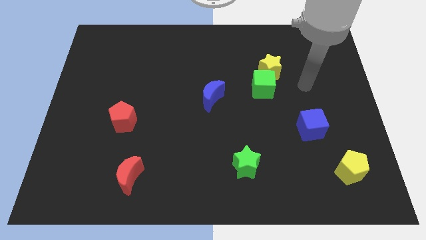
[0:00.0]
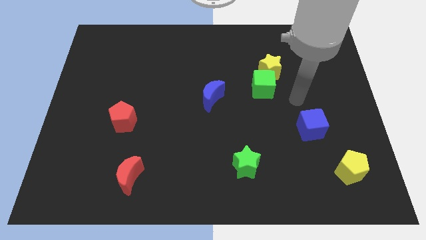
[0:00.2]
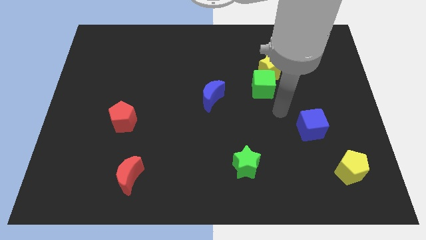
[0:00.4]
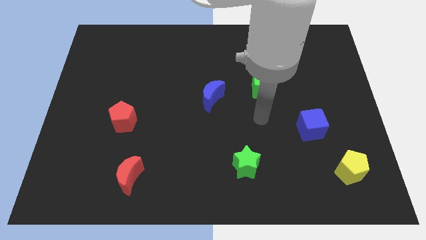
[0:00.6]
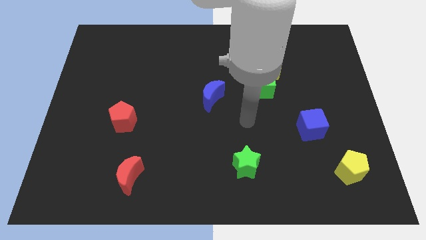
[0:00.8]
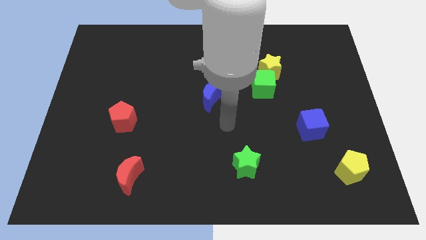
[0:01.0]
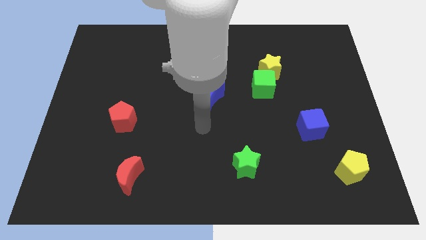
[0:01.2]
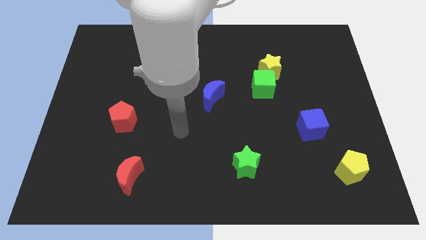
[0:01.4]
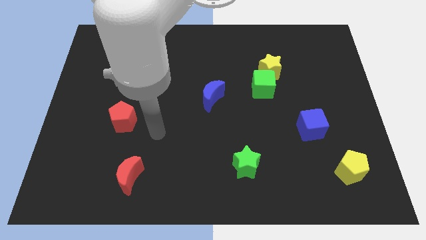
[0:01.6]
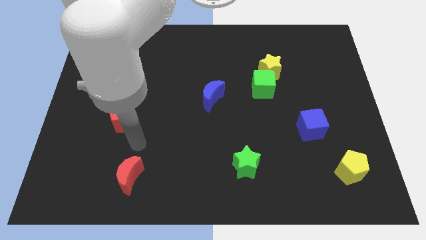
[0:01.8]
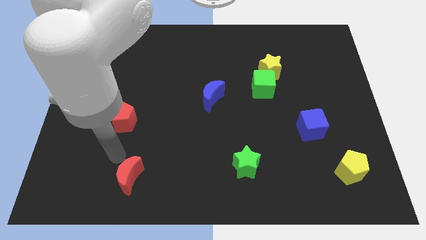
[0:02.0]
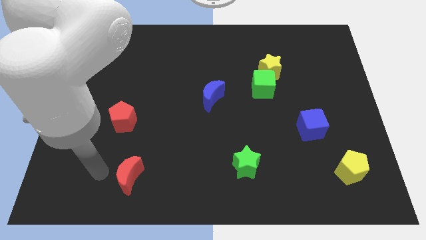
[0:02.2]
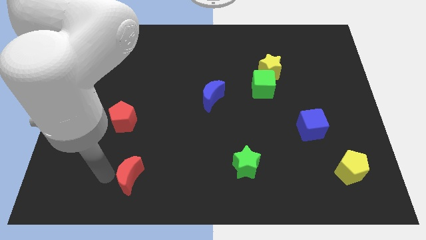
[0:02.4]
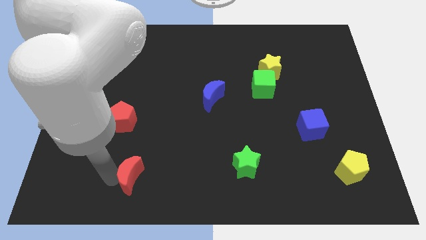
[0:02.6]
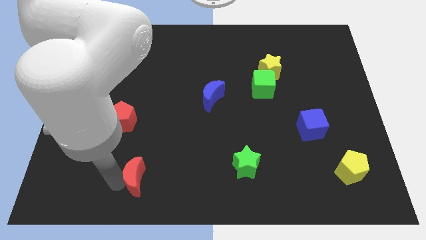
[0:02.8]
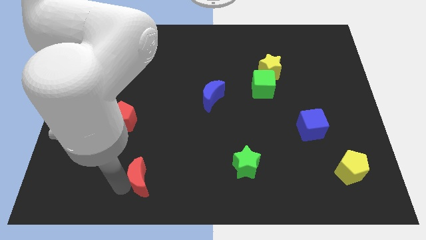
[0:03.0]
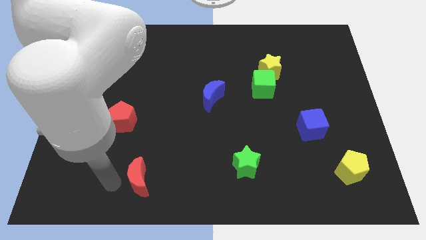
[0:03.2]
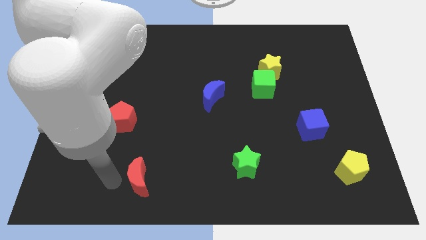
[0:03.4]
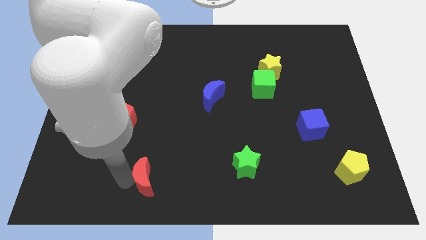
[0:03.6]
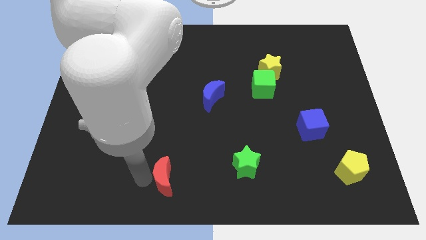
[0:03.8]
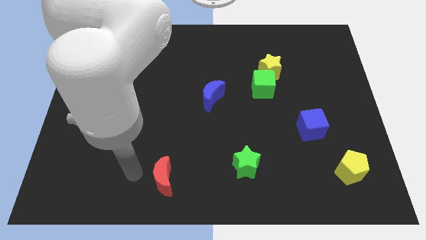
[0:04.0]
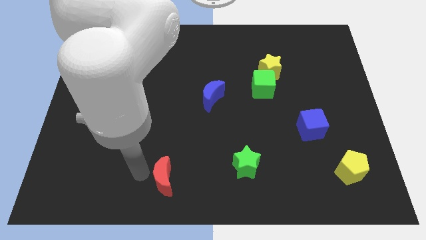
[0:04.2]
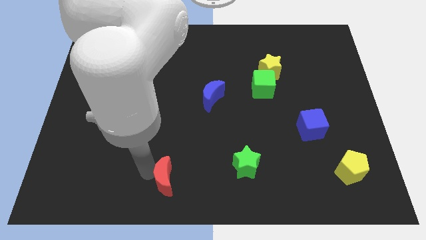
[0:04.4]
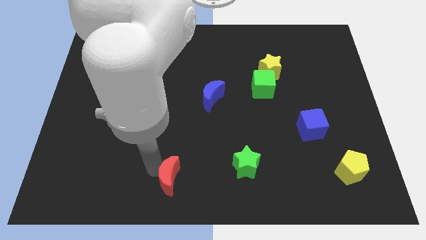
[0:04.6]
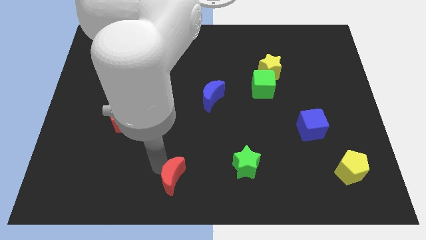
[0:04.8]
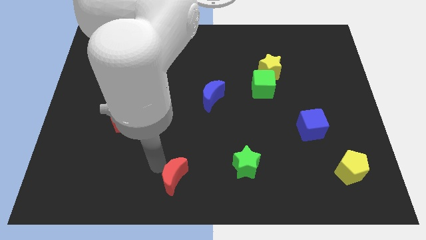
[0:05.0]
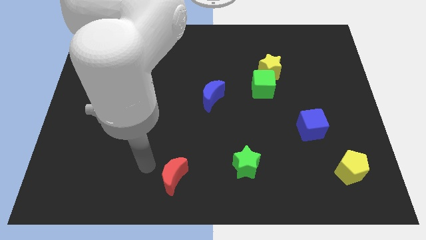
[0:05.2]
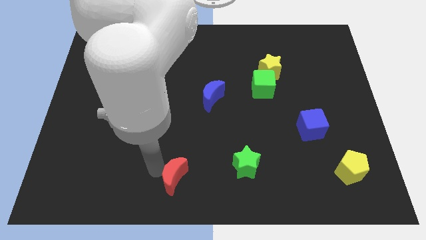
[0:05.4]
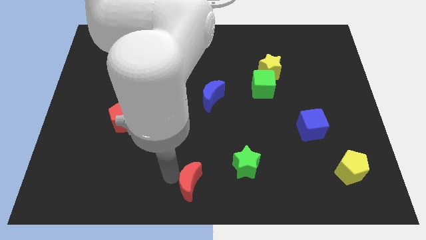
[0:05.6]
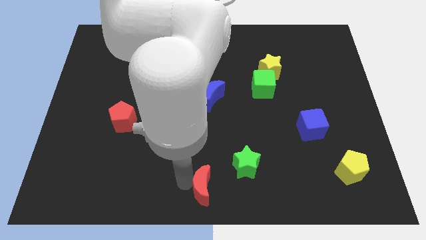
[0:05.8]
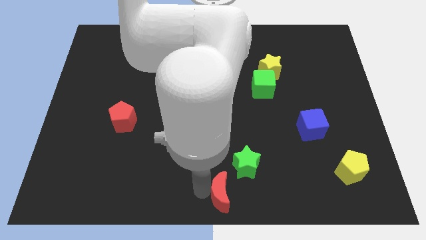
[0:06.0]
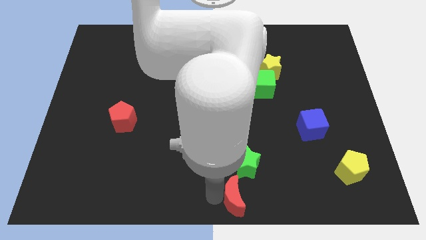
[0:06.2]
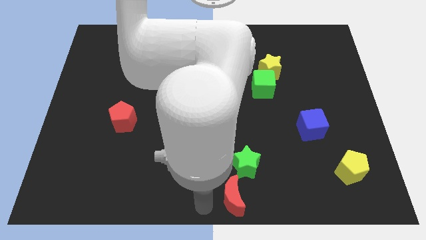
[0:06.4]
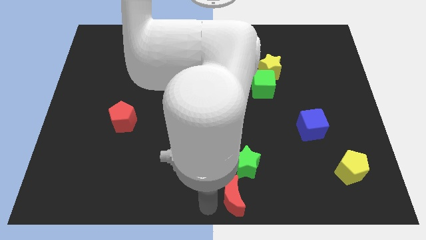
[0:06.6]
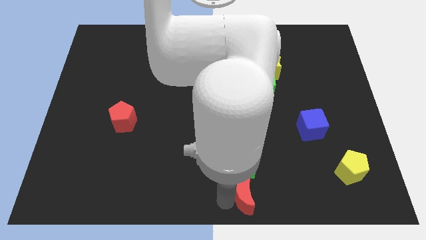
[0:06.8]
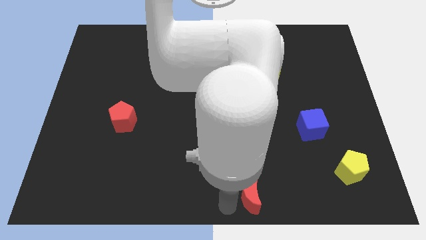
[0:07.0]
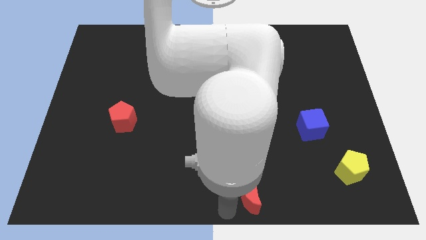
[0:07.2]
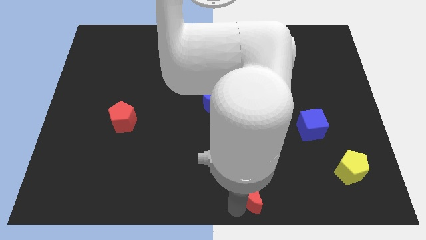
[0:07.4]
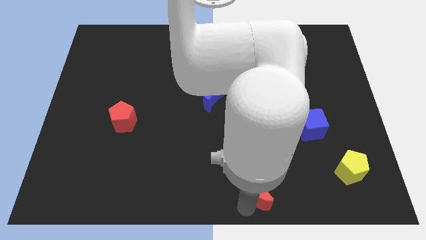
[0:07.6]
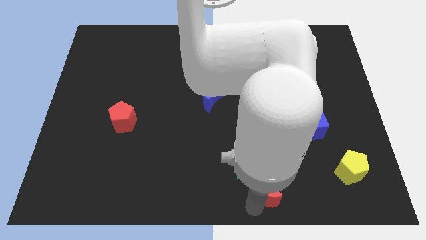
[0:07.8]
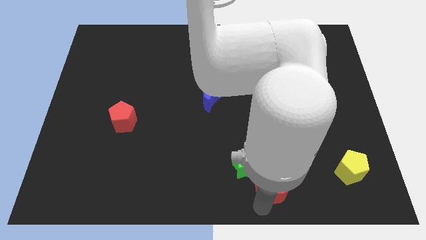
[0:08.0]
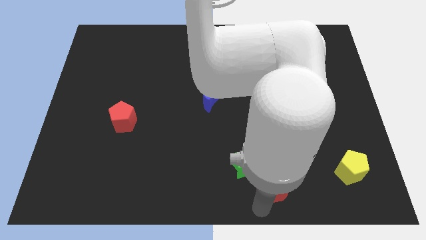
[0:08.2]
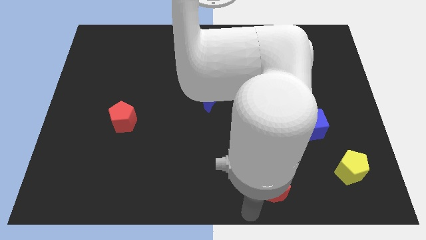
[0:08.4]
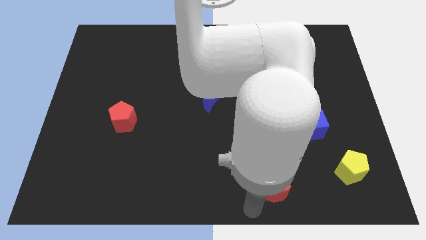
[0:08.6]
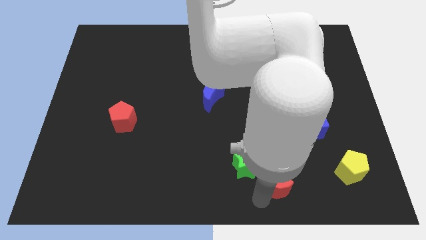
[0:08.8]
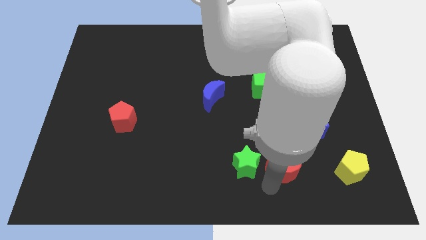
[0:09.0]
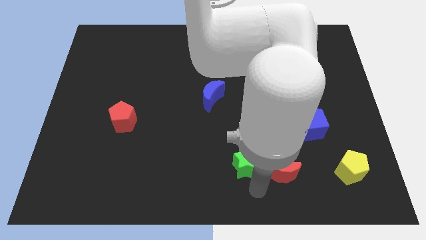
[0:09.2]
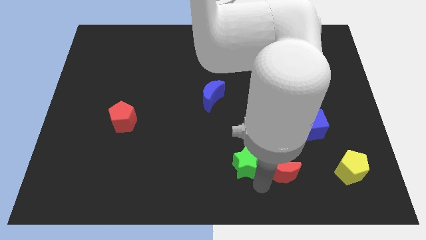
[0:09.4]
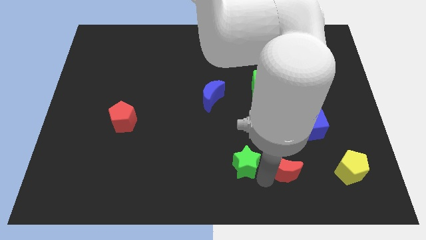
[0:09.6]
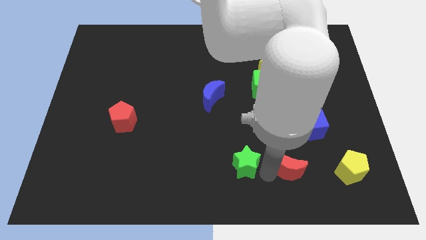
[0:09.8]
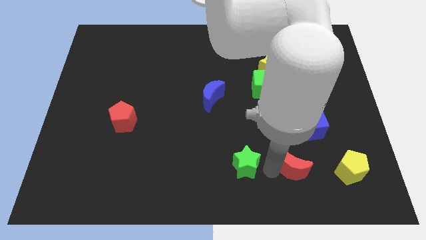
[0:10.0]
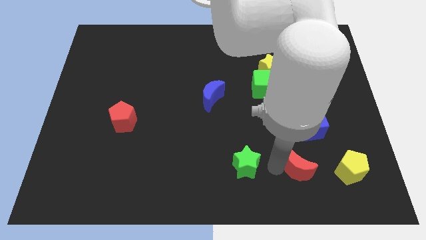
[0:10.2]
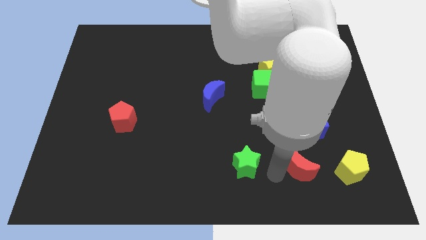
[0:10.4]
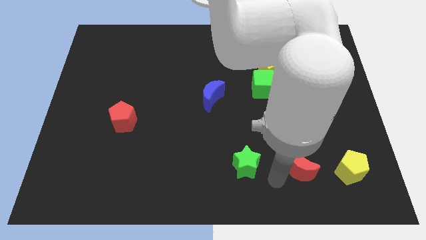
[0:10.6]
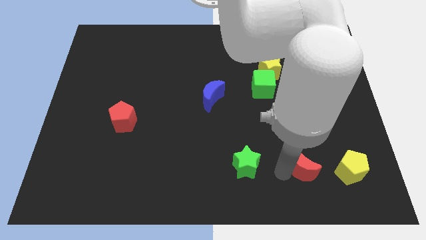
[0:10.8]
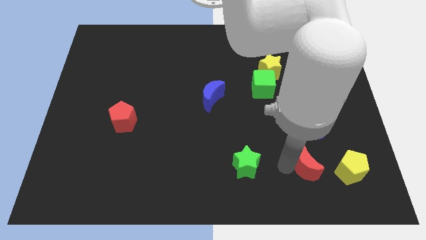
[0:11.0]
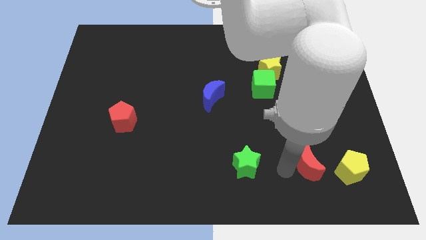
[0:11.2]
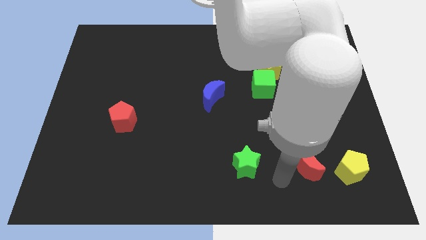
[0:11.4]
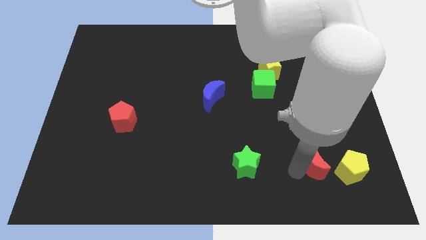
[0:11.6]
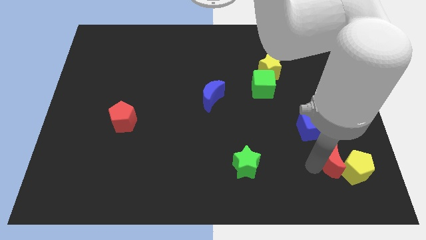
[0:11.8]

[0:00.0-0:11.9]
put the red moon to the bottom right of the blue cube

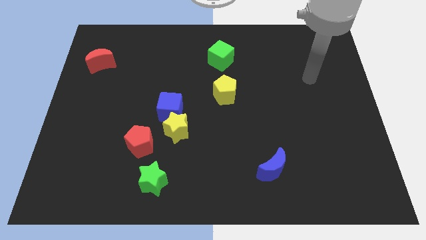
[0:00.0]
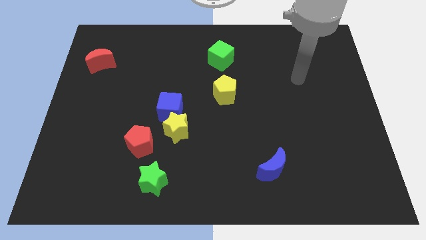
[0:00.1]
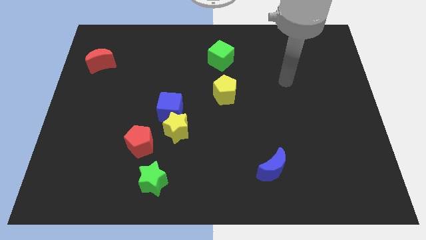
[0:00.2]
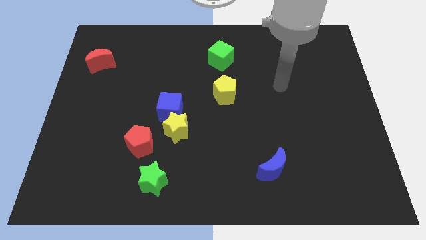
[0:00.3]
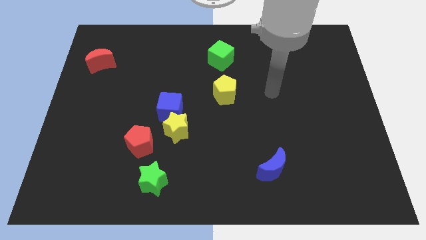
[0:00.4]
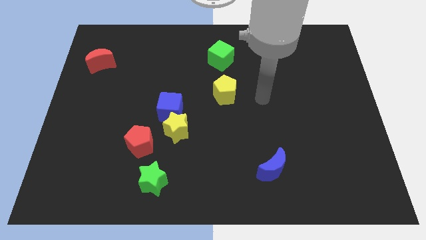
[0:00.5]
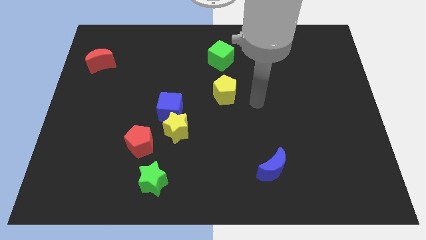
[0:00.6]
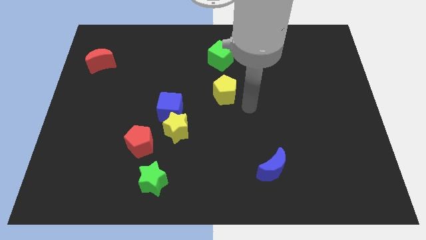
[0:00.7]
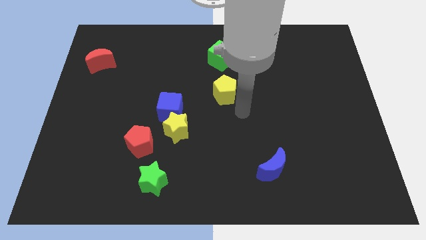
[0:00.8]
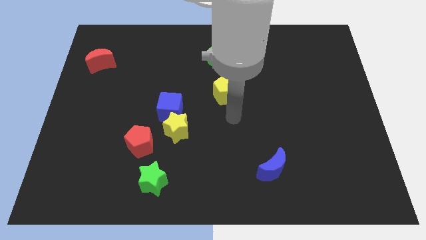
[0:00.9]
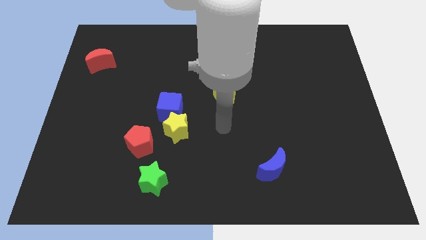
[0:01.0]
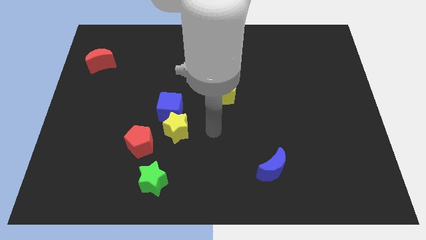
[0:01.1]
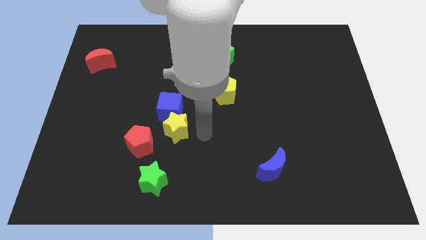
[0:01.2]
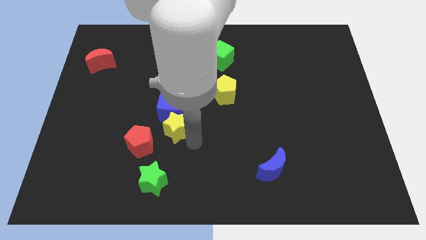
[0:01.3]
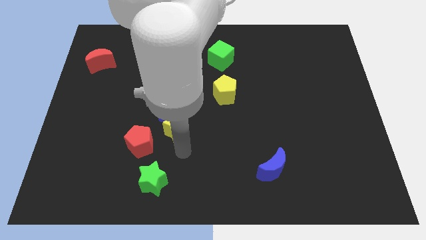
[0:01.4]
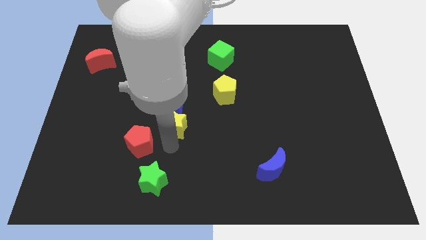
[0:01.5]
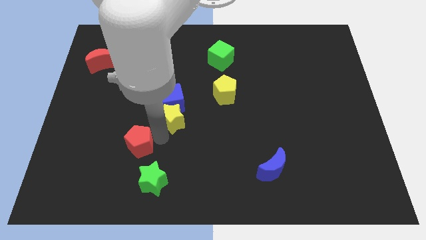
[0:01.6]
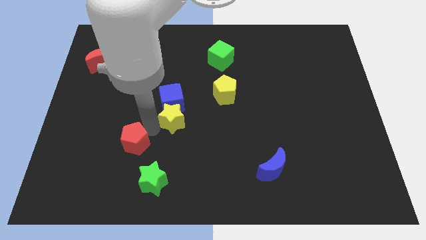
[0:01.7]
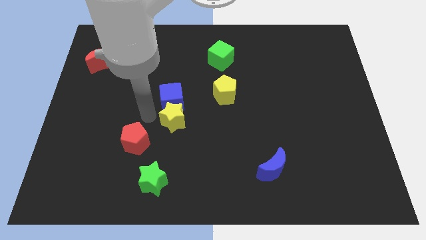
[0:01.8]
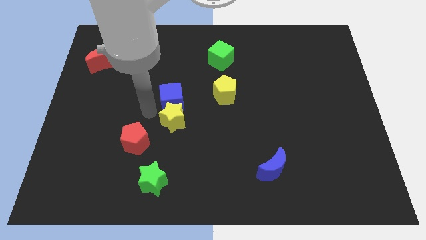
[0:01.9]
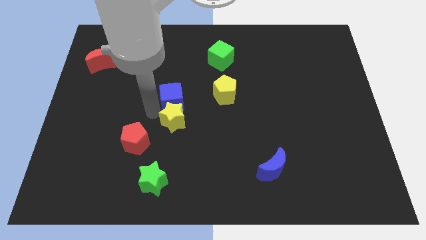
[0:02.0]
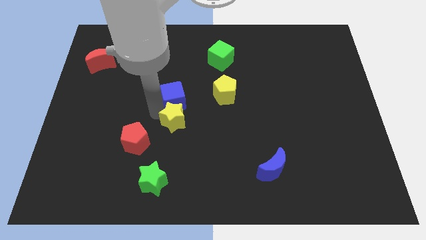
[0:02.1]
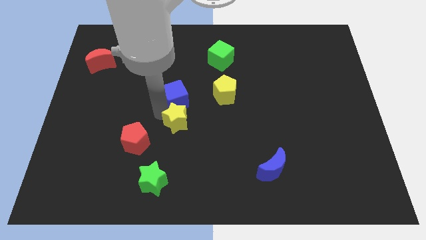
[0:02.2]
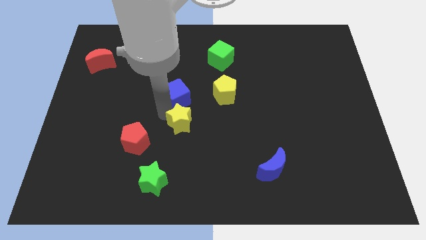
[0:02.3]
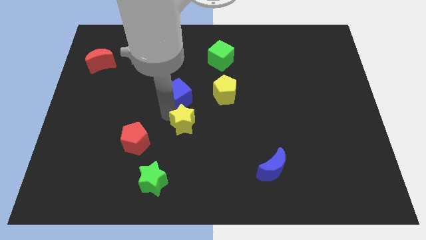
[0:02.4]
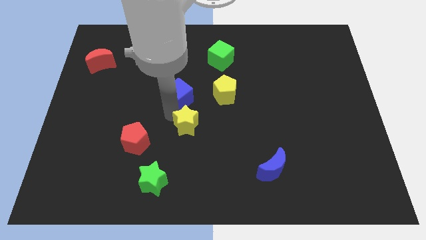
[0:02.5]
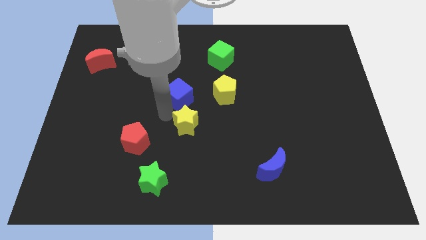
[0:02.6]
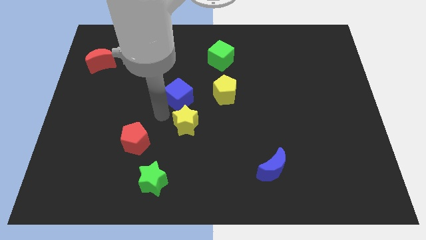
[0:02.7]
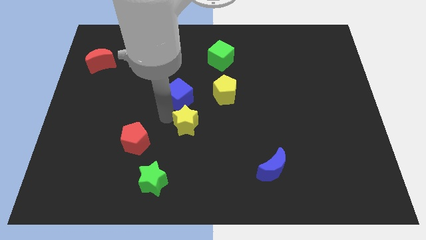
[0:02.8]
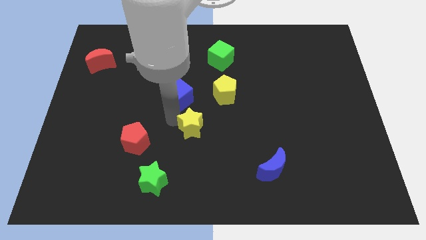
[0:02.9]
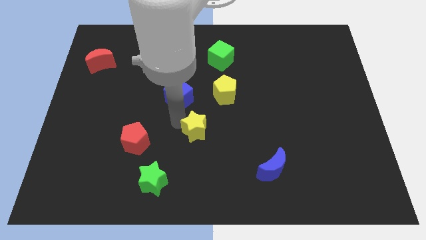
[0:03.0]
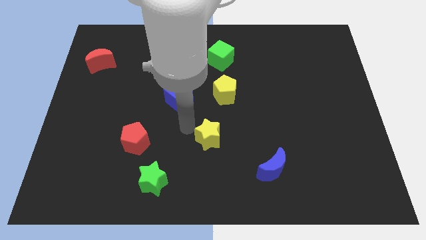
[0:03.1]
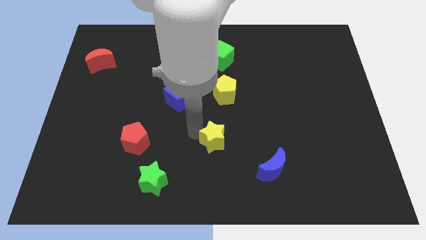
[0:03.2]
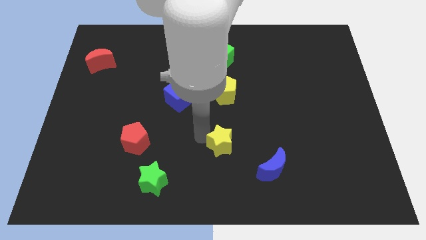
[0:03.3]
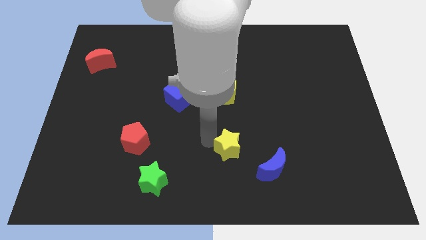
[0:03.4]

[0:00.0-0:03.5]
slide the yellow star diagonally up and to the left of the blue moon
